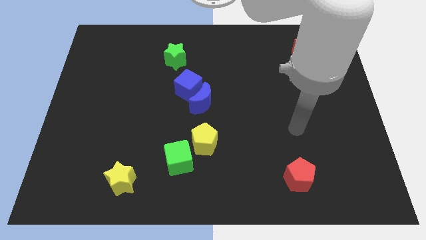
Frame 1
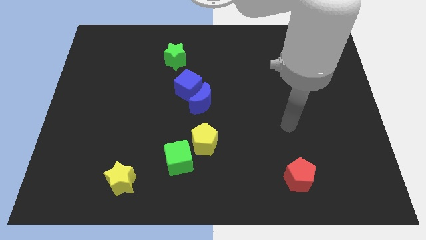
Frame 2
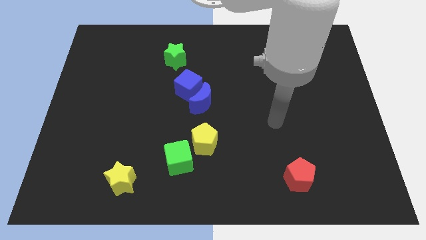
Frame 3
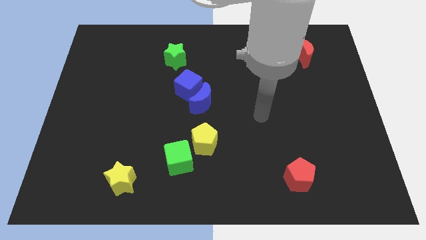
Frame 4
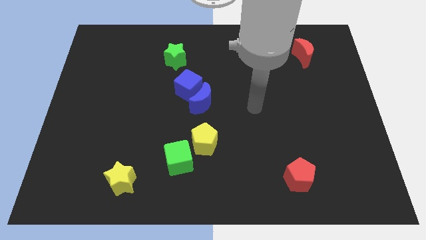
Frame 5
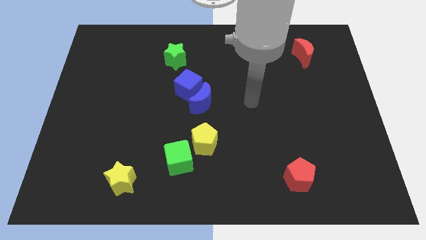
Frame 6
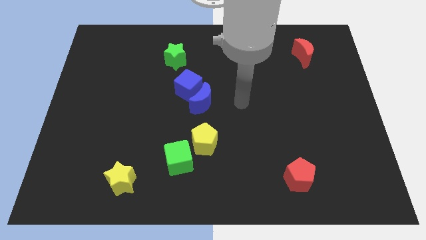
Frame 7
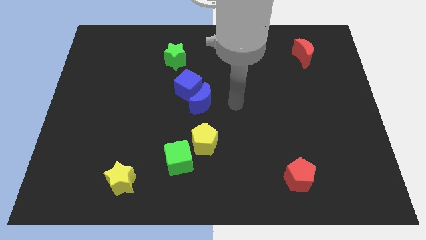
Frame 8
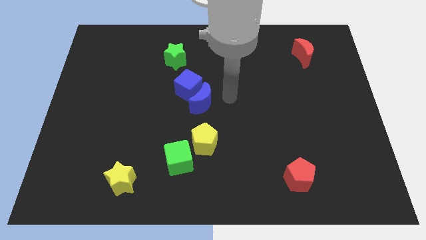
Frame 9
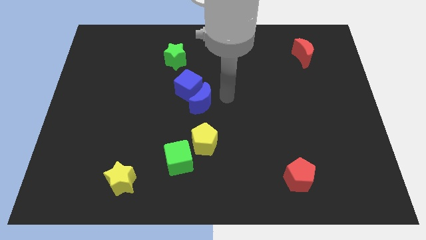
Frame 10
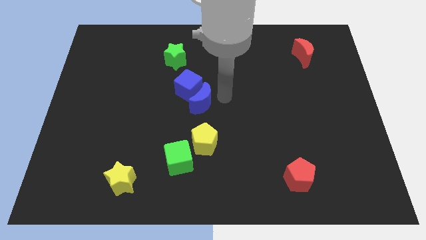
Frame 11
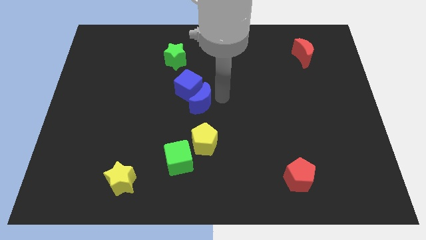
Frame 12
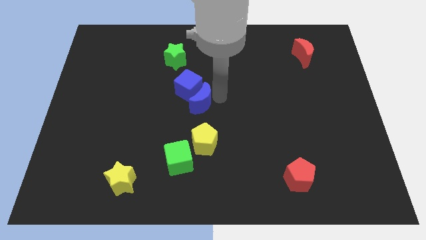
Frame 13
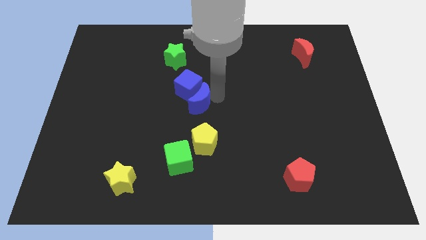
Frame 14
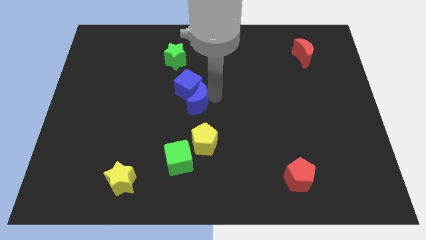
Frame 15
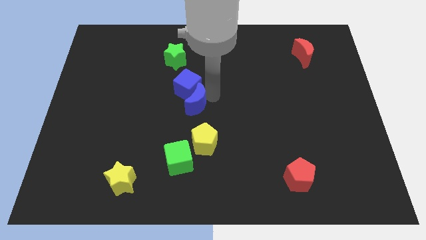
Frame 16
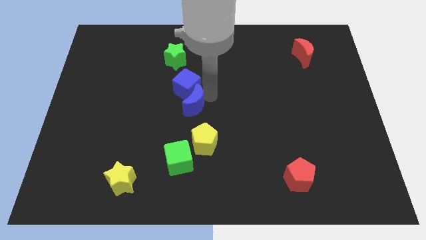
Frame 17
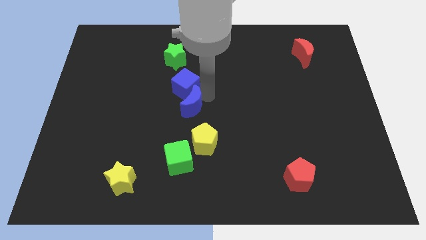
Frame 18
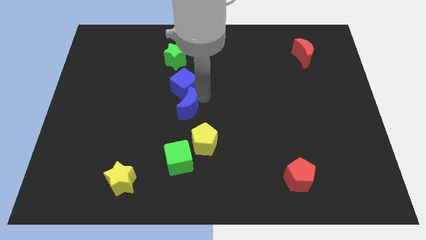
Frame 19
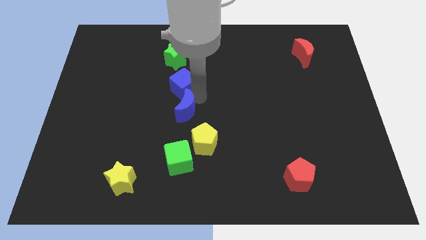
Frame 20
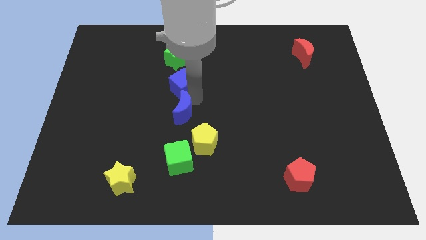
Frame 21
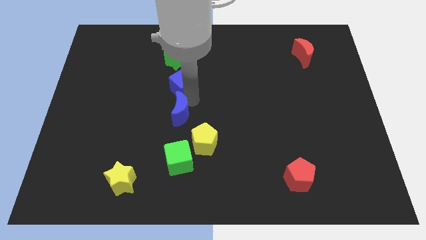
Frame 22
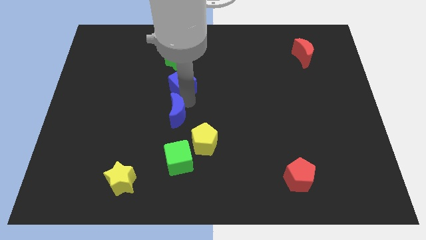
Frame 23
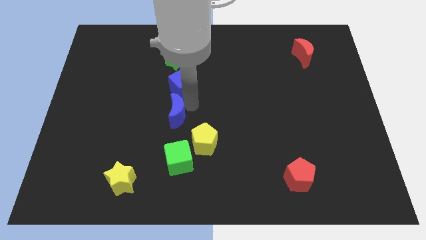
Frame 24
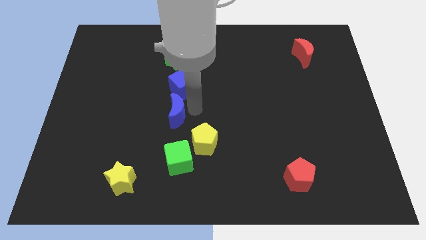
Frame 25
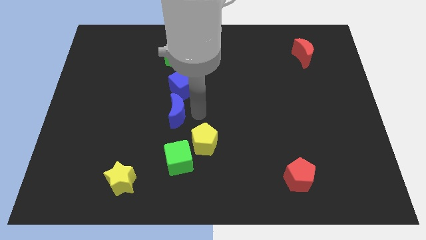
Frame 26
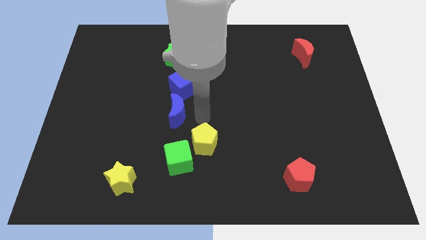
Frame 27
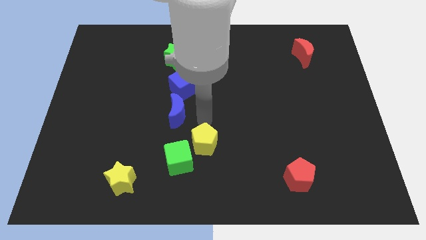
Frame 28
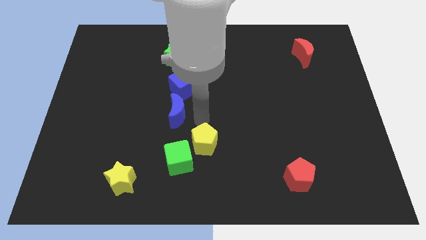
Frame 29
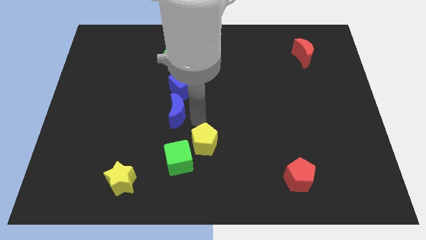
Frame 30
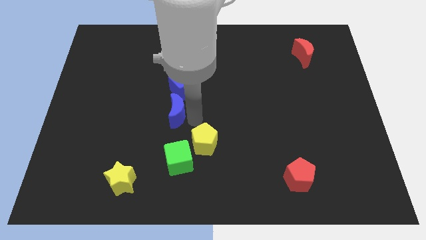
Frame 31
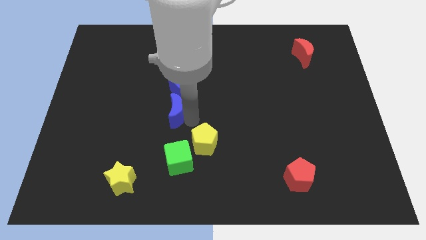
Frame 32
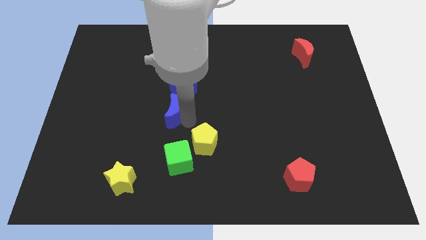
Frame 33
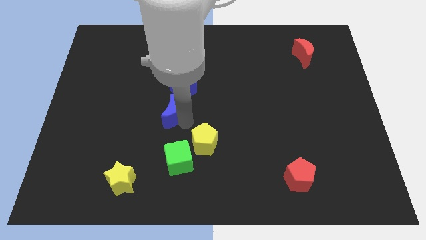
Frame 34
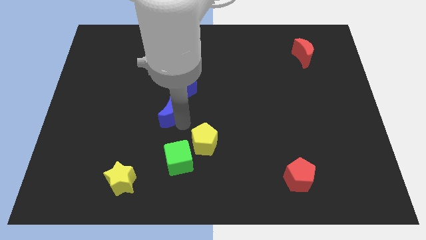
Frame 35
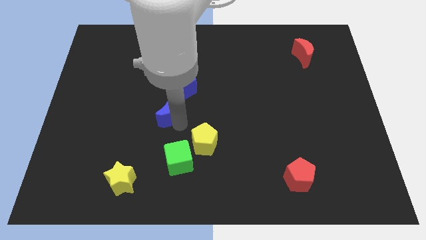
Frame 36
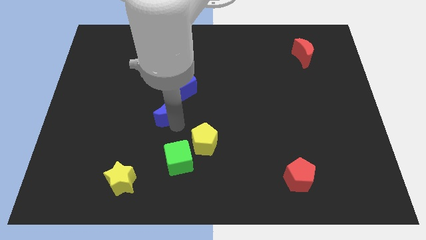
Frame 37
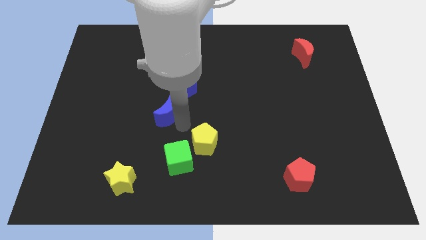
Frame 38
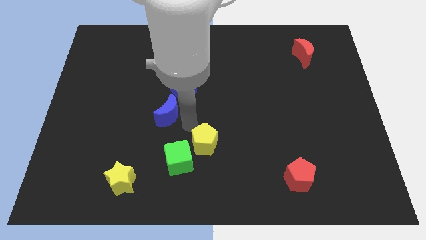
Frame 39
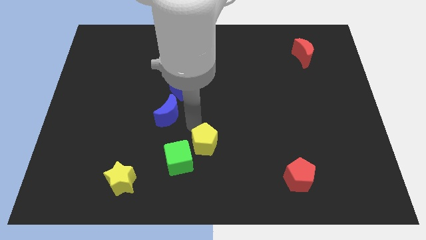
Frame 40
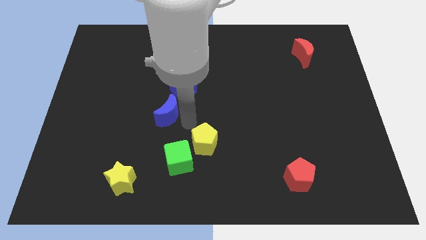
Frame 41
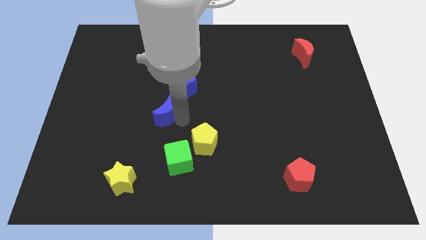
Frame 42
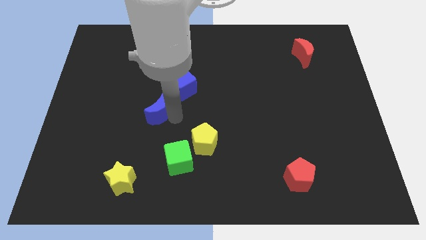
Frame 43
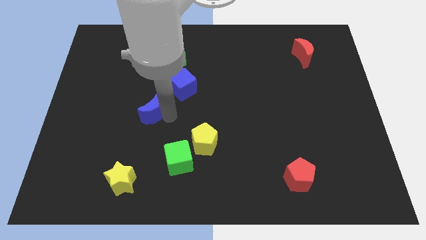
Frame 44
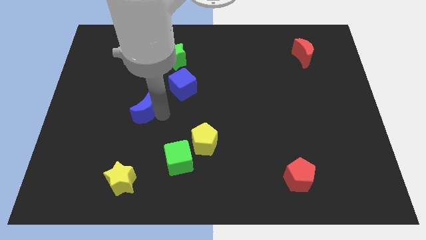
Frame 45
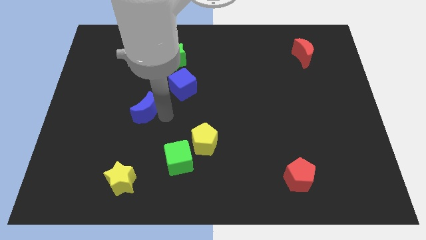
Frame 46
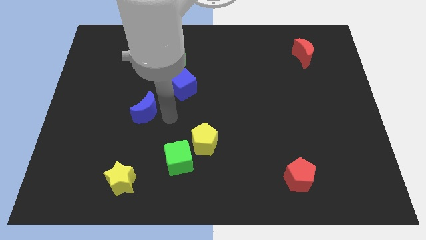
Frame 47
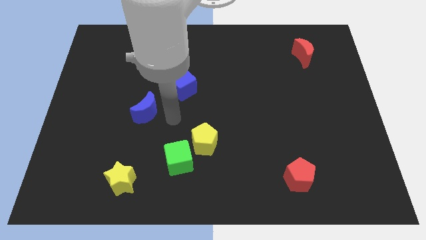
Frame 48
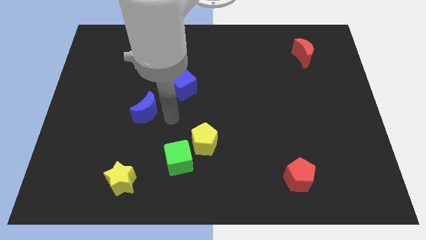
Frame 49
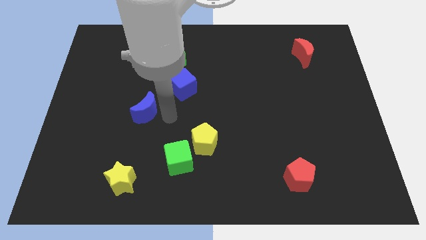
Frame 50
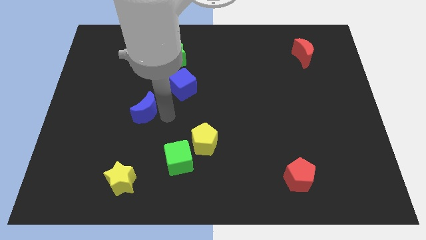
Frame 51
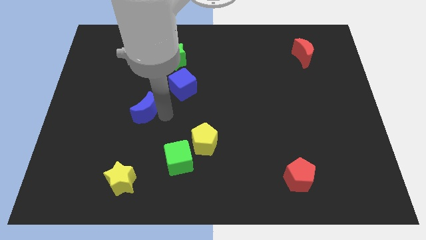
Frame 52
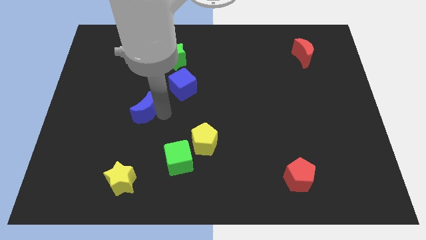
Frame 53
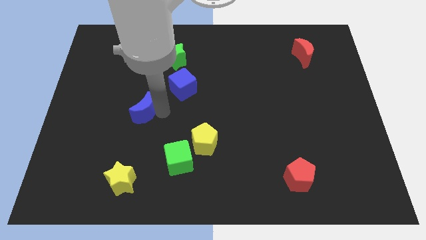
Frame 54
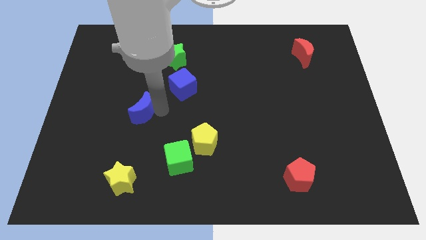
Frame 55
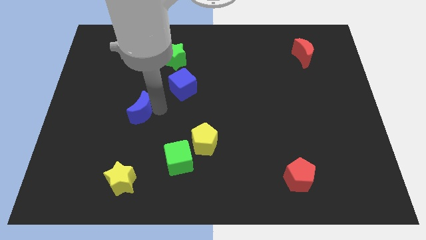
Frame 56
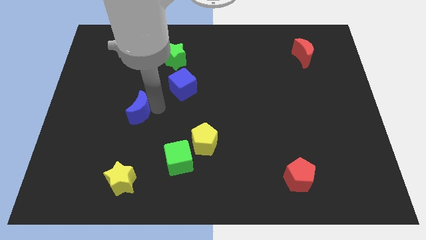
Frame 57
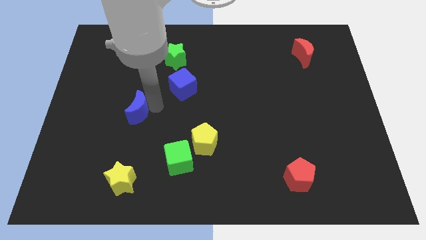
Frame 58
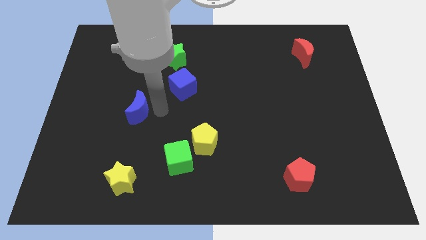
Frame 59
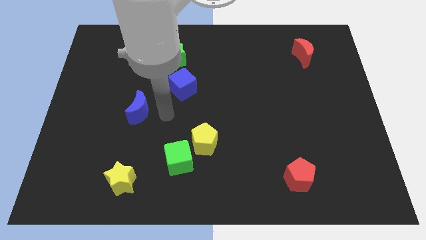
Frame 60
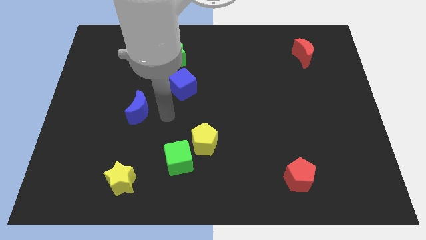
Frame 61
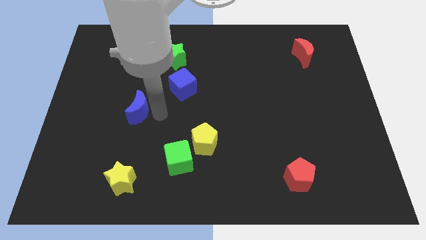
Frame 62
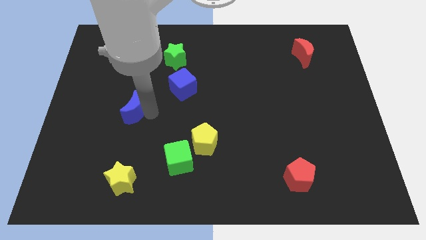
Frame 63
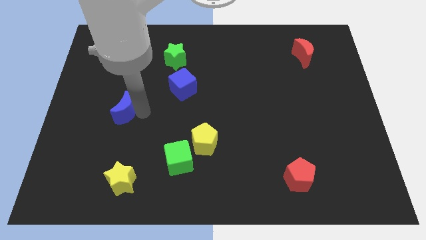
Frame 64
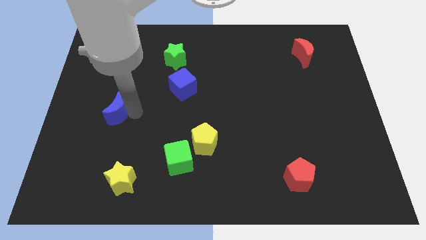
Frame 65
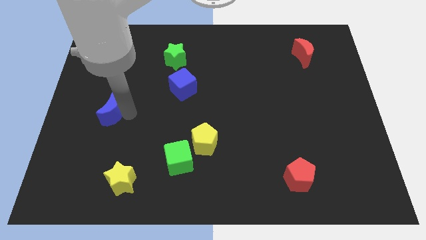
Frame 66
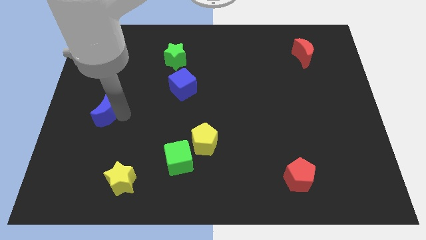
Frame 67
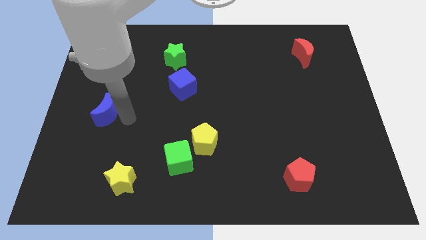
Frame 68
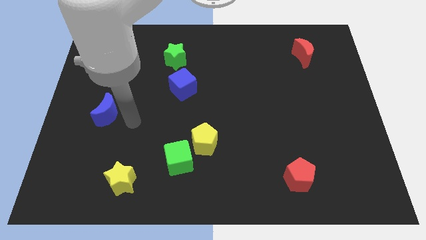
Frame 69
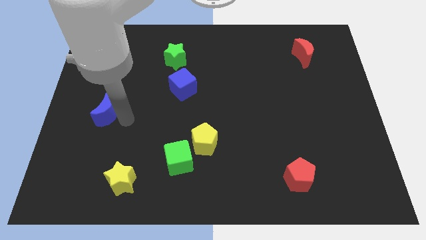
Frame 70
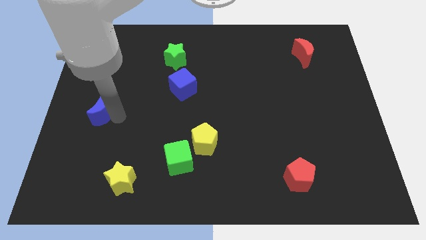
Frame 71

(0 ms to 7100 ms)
push the blue moon to the left side of the board
